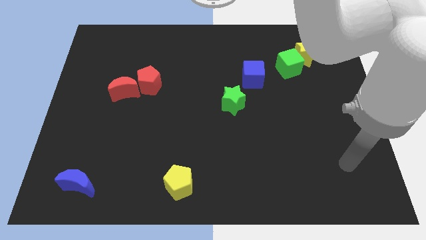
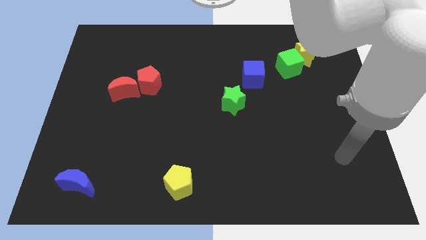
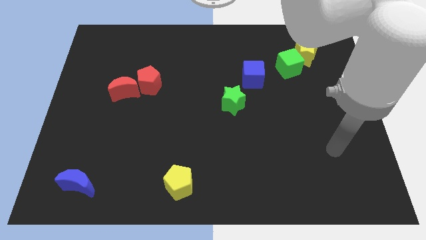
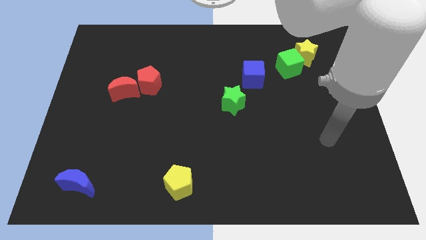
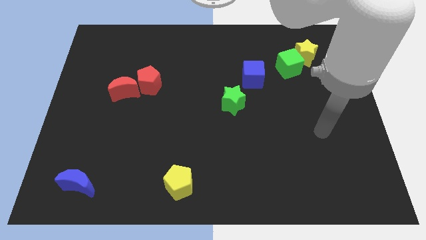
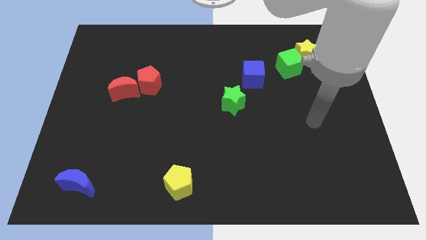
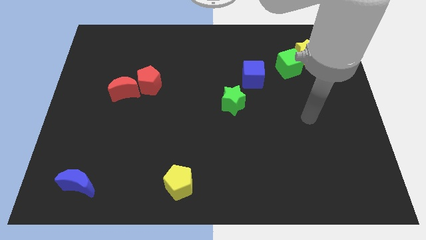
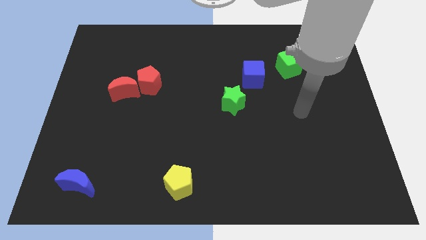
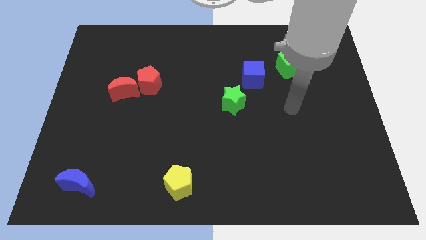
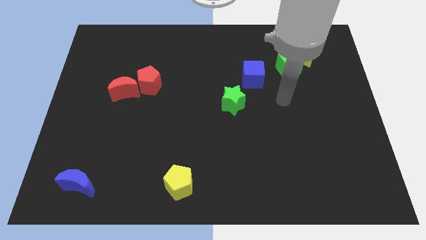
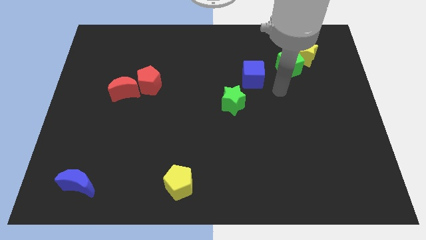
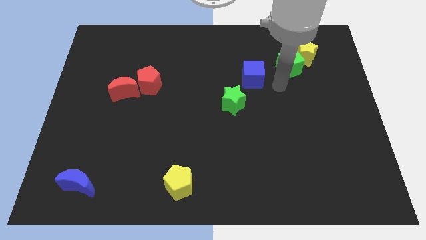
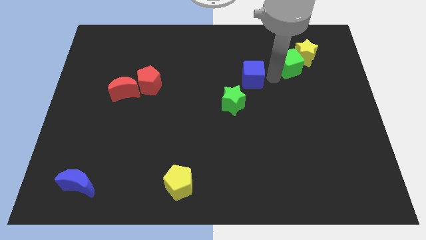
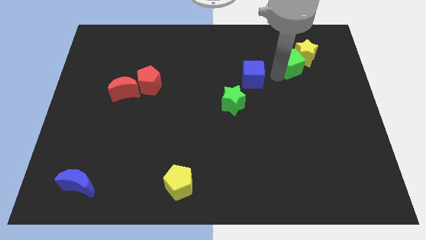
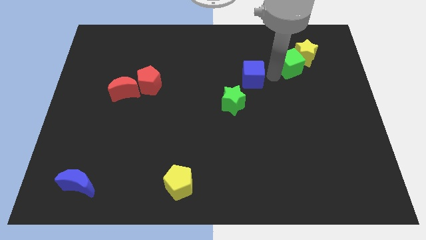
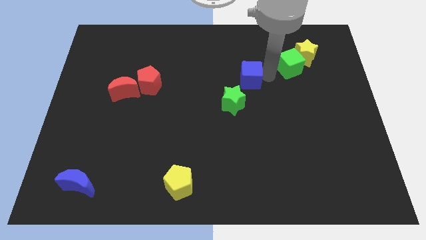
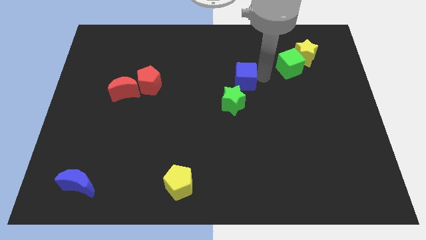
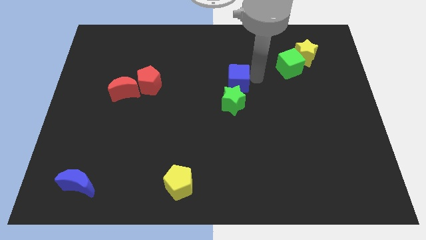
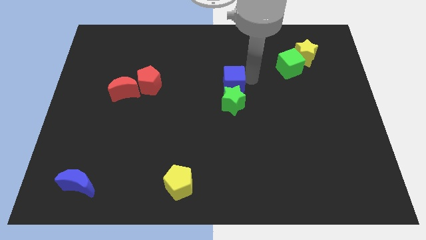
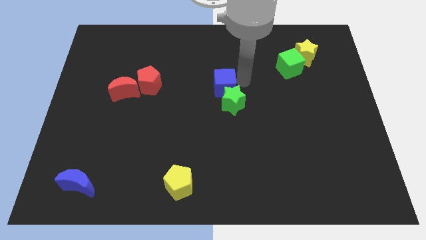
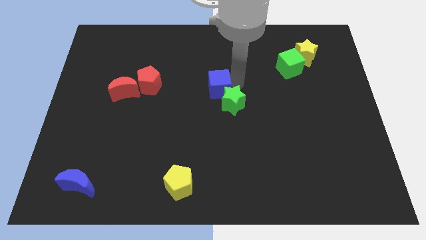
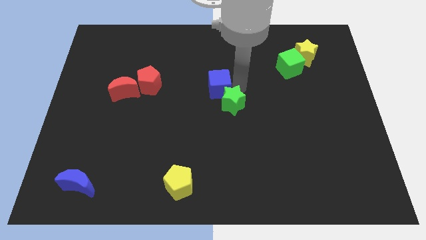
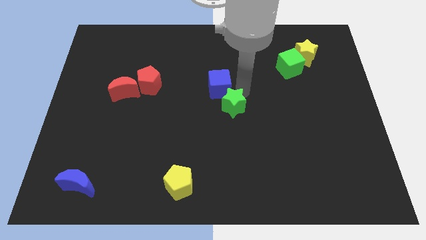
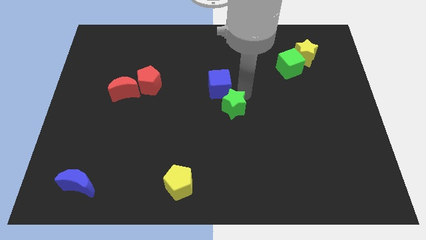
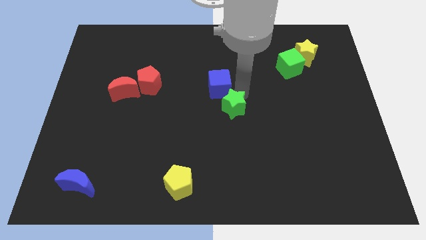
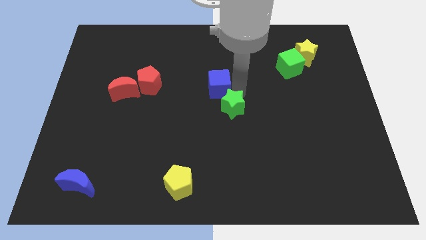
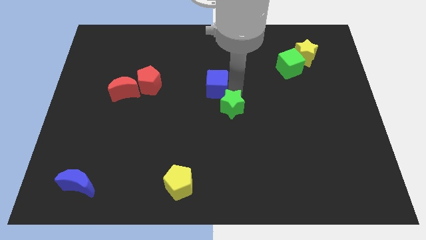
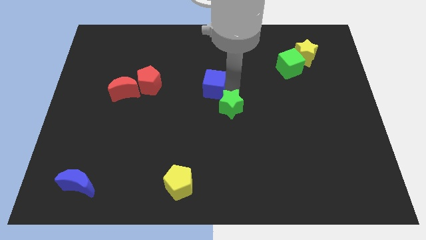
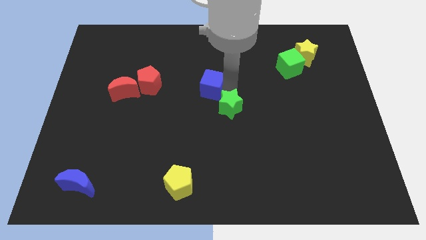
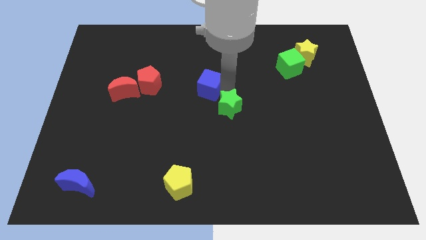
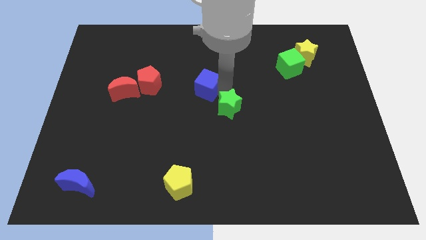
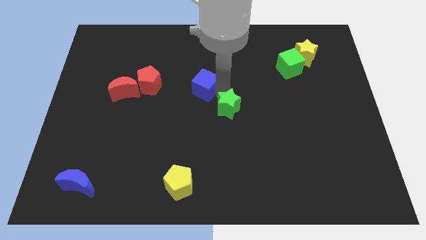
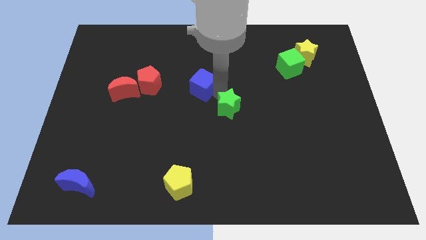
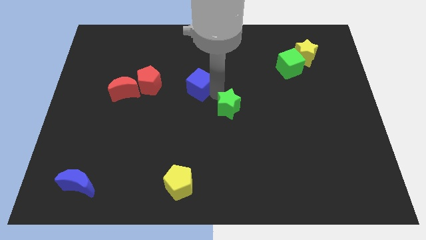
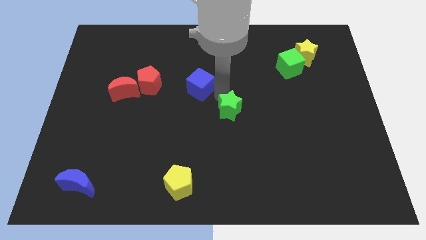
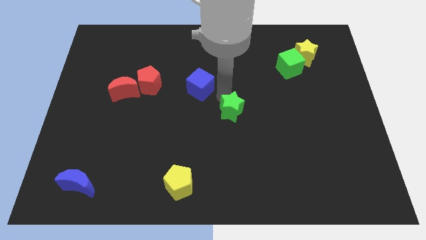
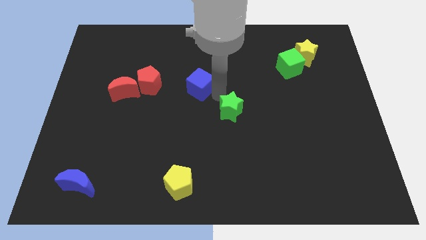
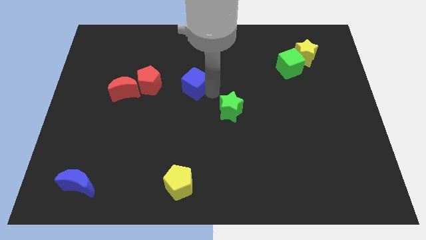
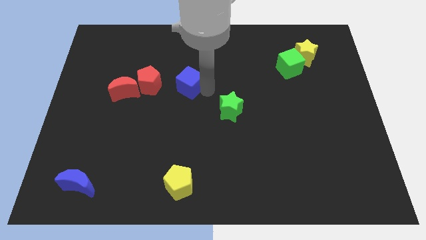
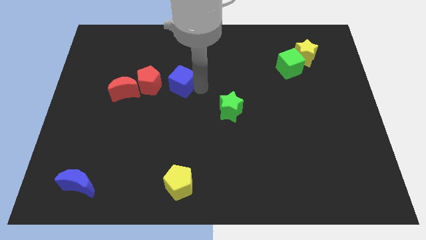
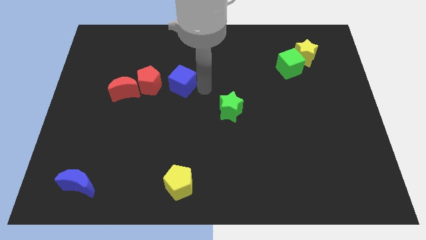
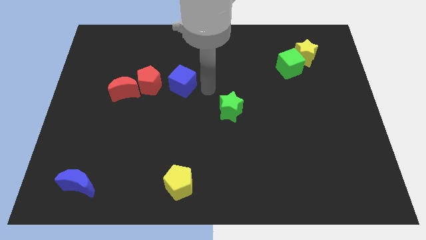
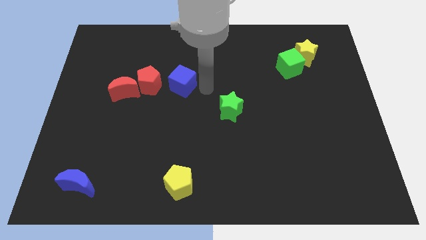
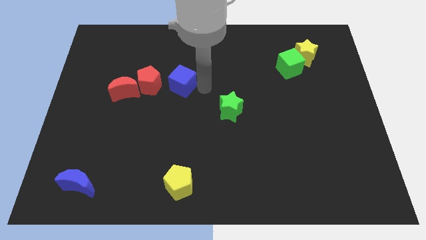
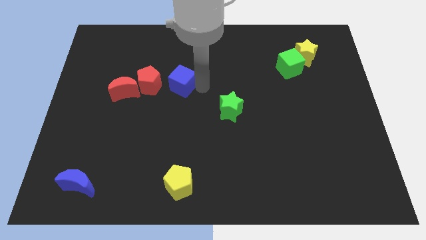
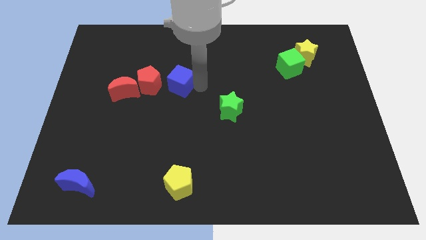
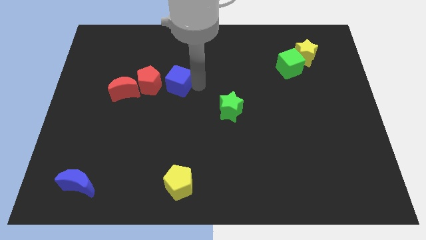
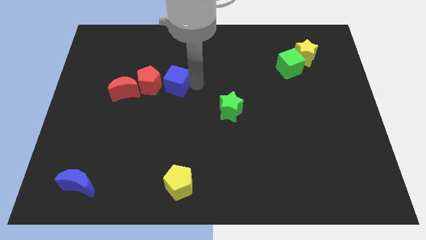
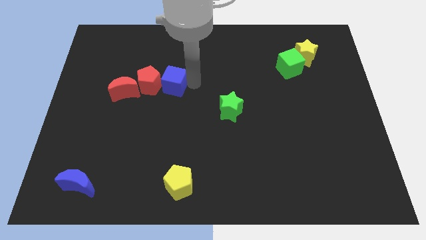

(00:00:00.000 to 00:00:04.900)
put the blue cube close to the red pentagon

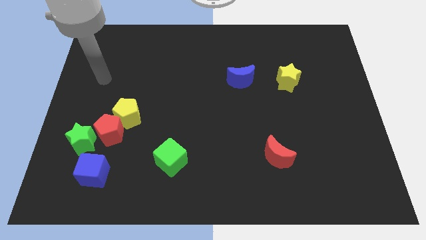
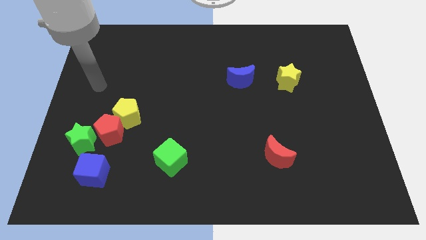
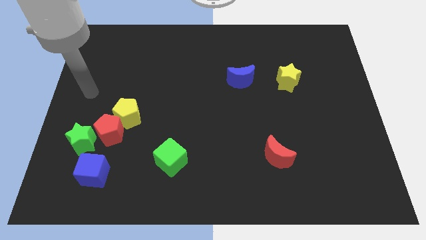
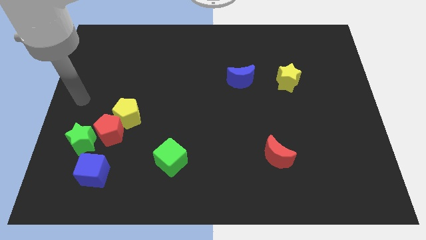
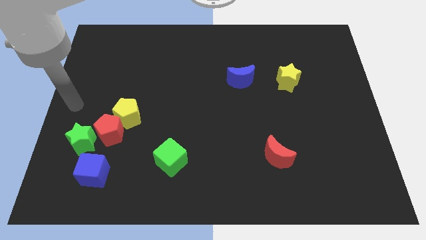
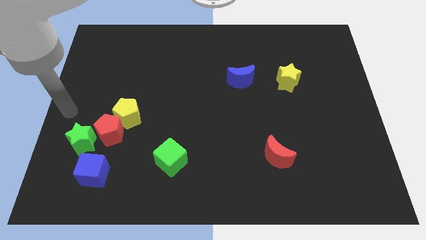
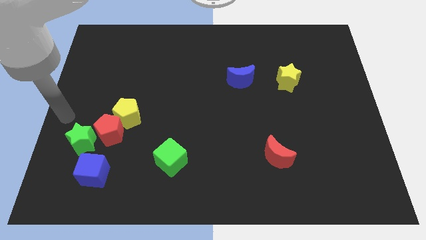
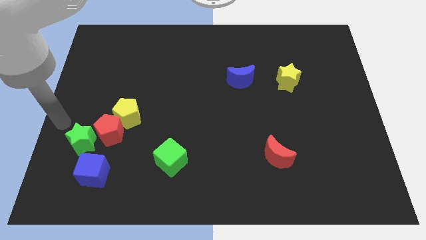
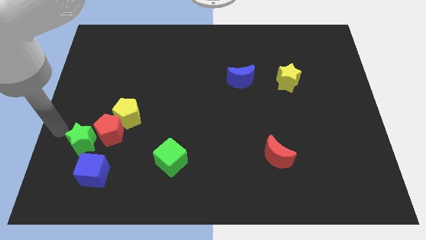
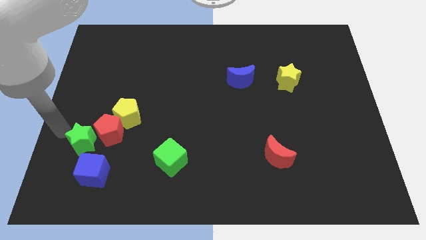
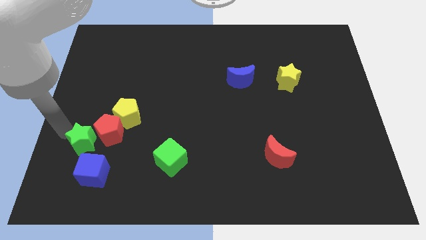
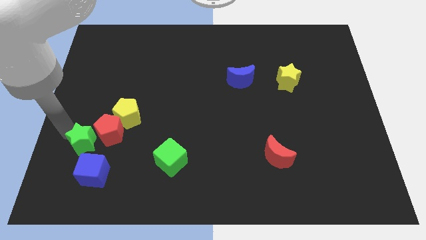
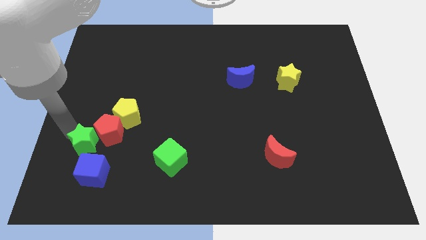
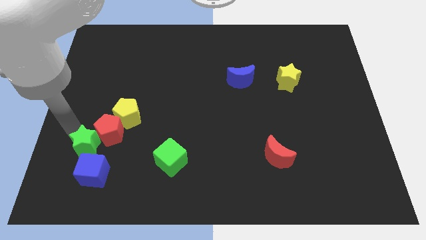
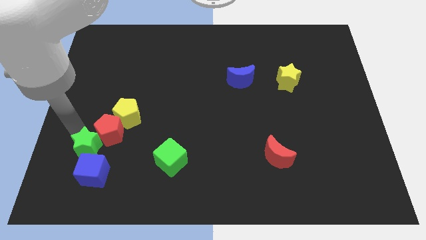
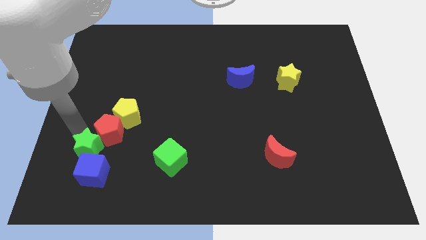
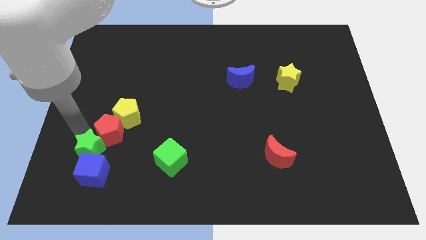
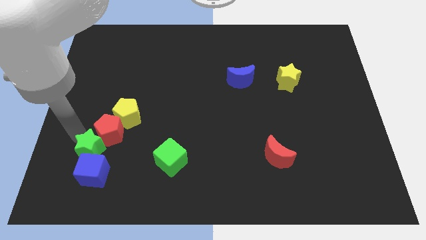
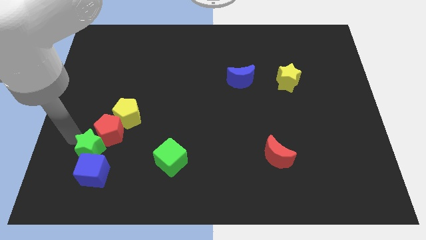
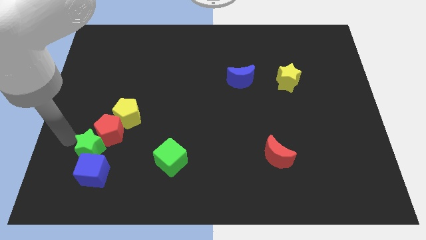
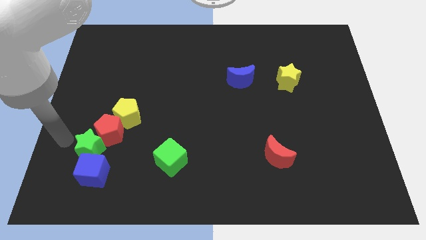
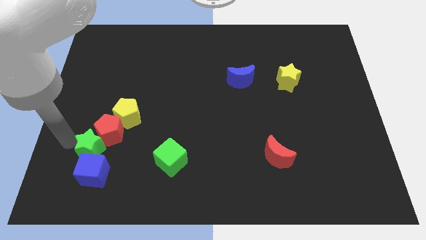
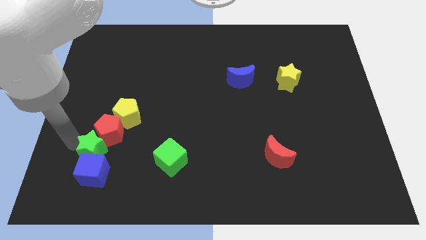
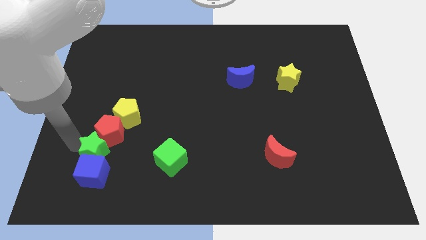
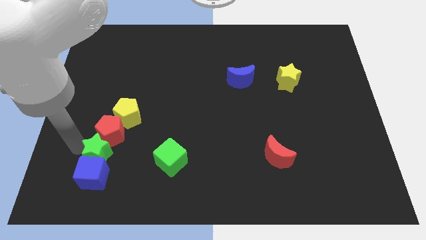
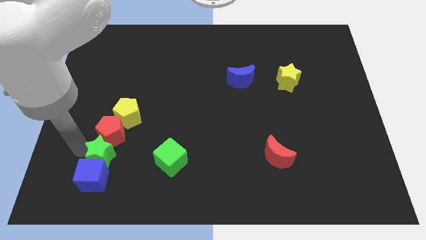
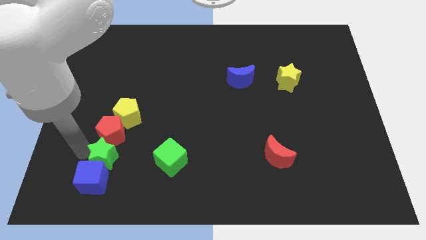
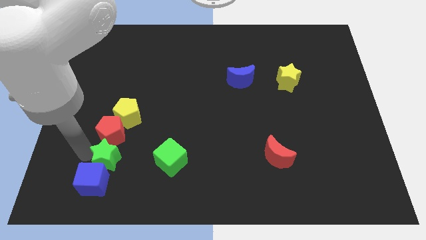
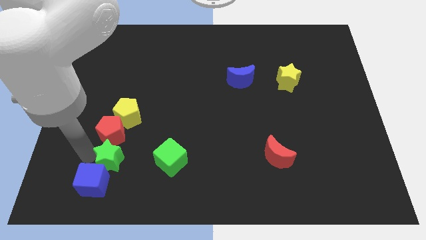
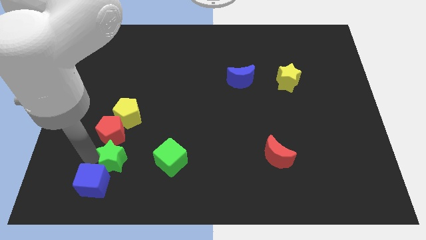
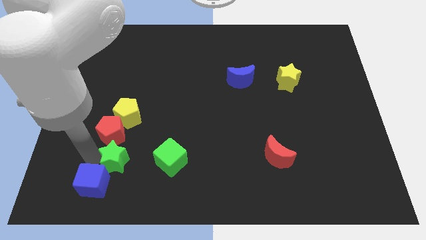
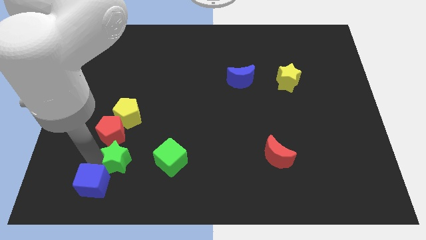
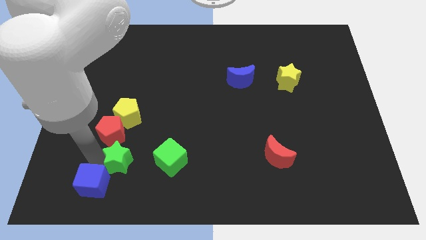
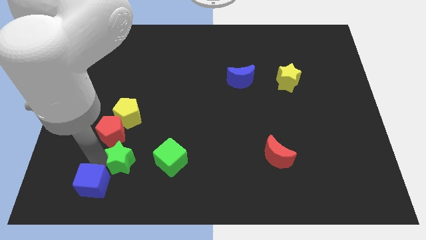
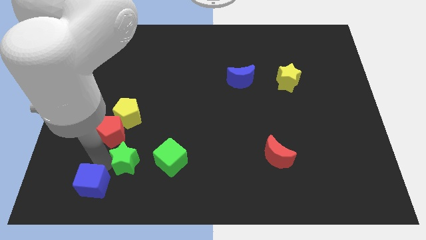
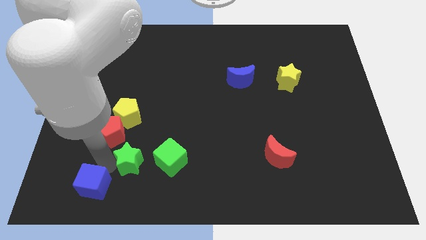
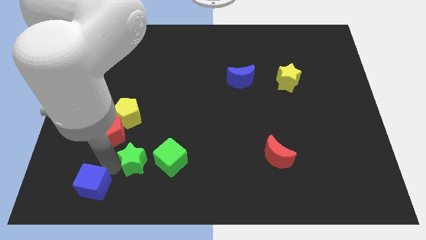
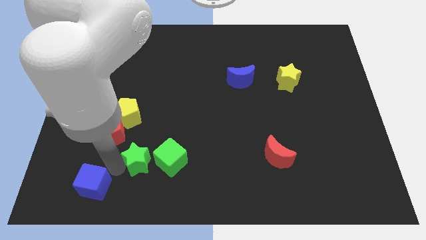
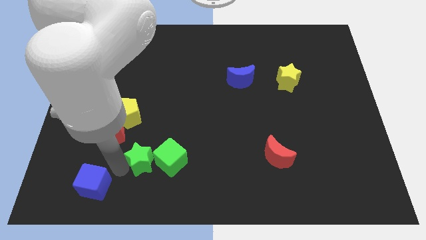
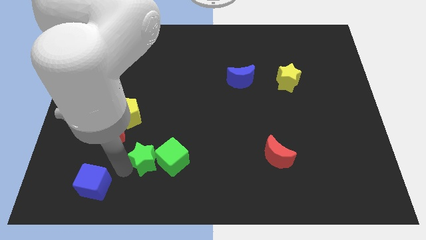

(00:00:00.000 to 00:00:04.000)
put the green star next to the green cube
